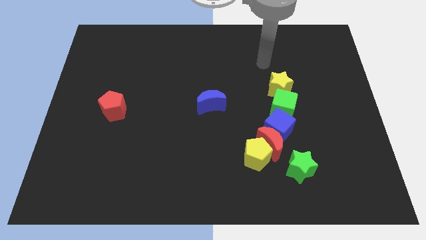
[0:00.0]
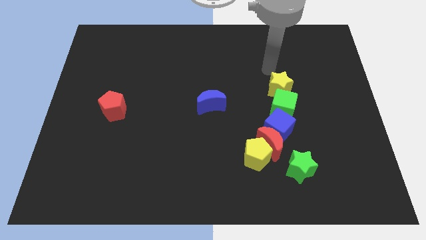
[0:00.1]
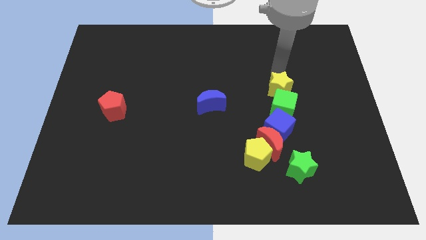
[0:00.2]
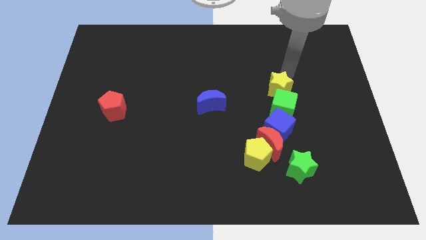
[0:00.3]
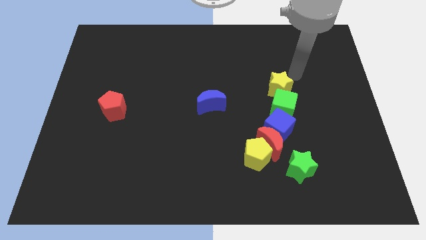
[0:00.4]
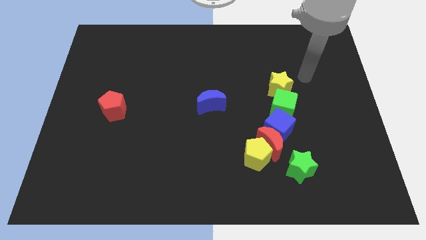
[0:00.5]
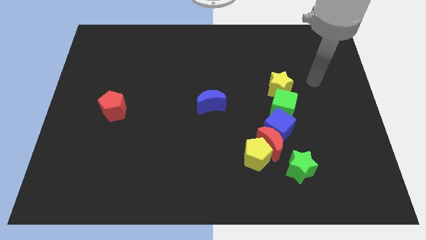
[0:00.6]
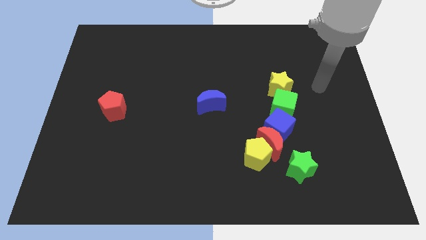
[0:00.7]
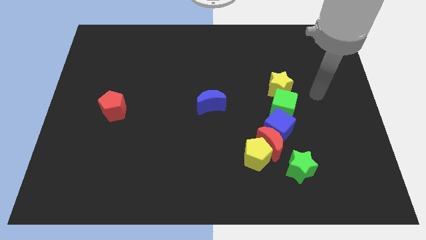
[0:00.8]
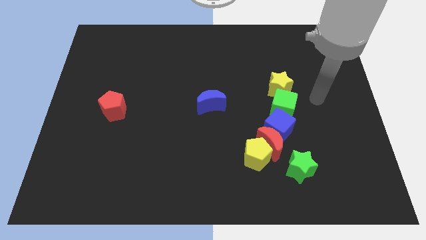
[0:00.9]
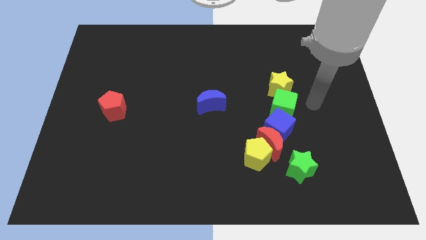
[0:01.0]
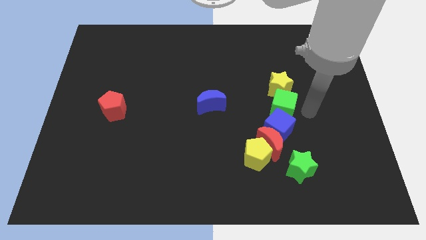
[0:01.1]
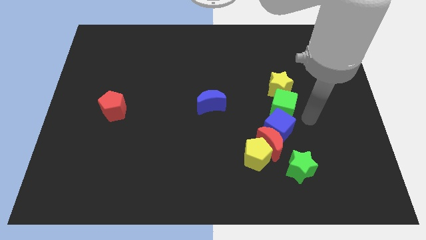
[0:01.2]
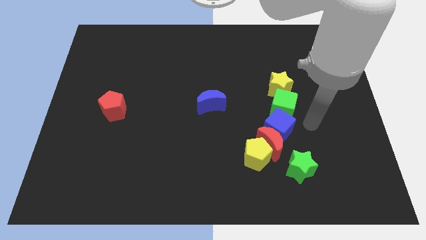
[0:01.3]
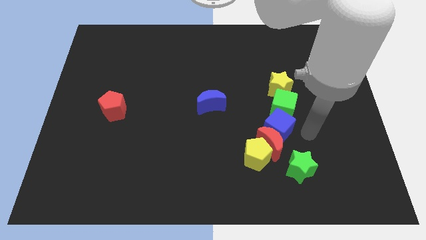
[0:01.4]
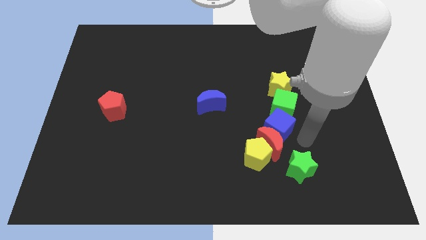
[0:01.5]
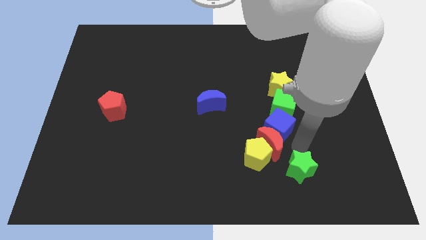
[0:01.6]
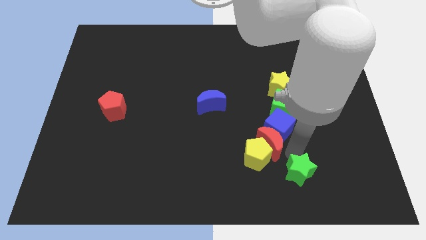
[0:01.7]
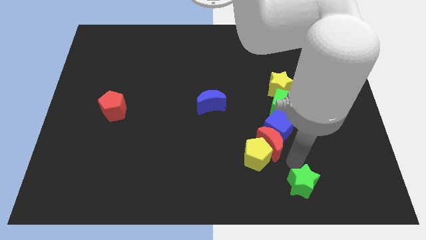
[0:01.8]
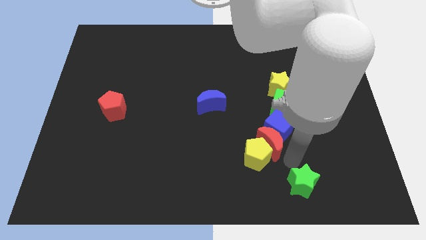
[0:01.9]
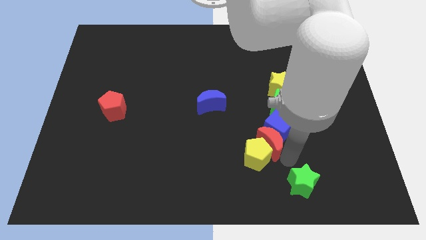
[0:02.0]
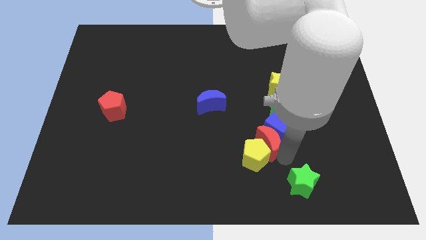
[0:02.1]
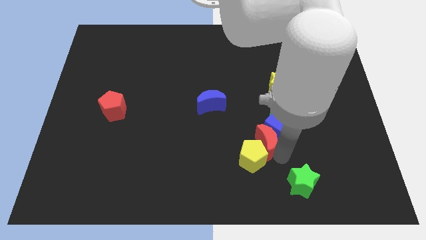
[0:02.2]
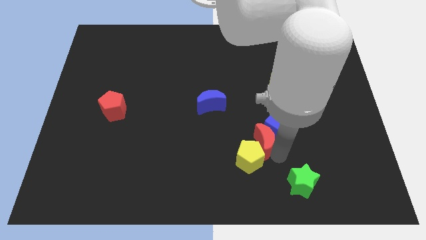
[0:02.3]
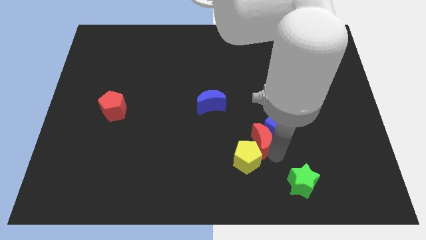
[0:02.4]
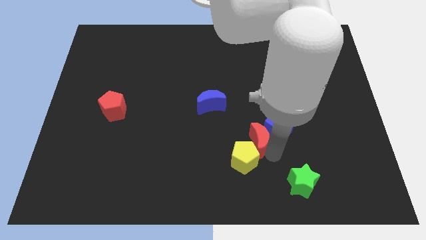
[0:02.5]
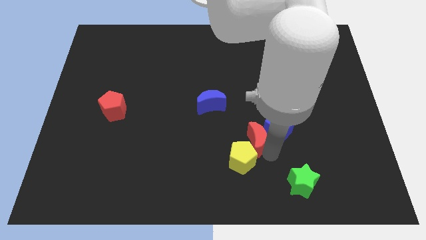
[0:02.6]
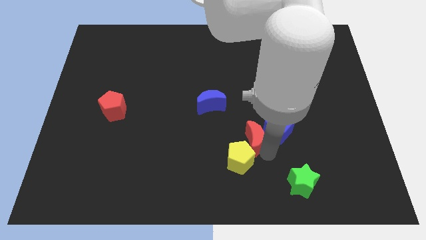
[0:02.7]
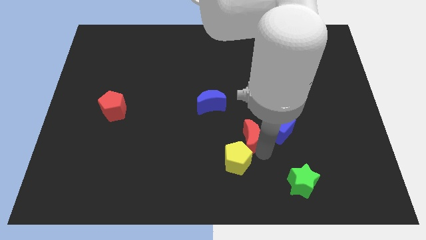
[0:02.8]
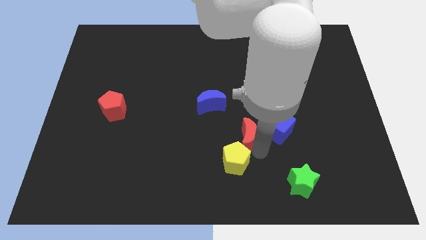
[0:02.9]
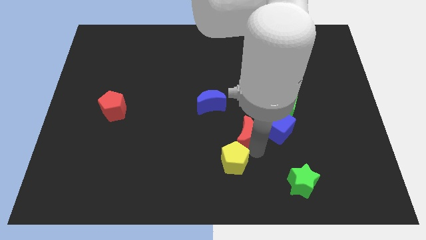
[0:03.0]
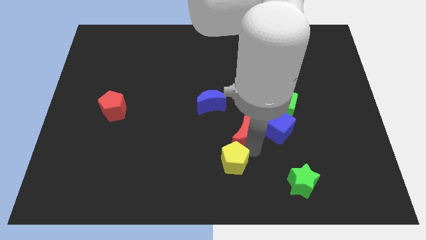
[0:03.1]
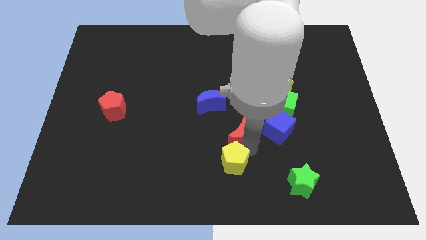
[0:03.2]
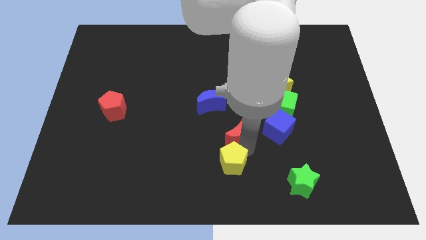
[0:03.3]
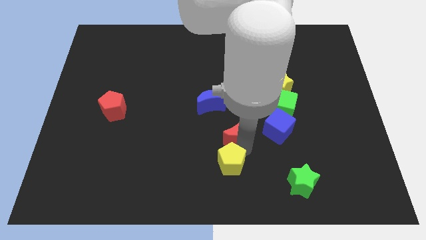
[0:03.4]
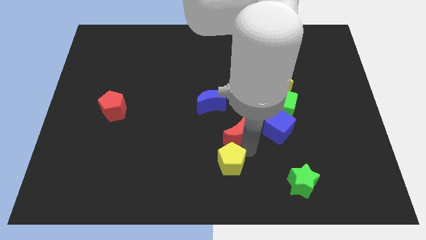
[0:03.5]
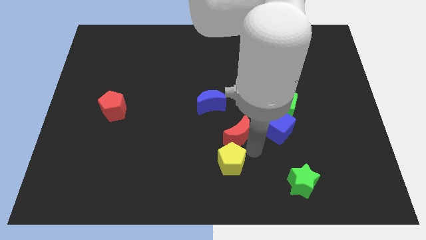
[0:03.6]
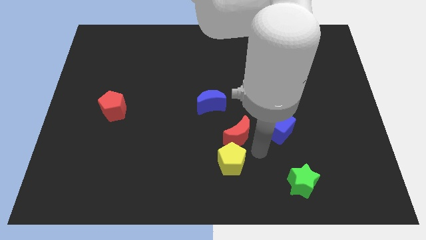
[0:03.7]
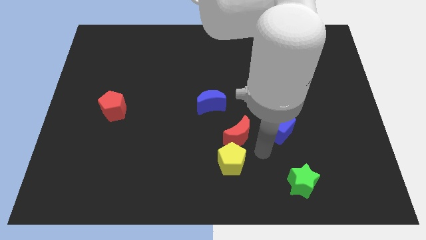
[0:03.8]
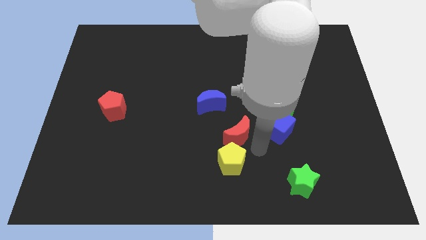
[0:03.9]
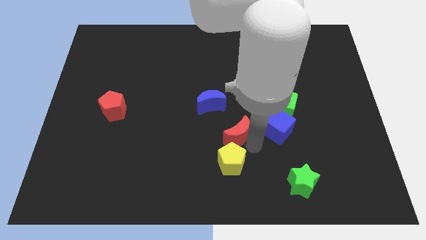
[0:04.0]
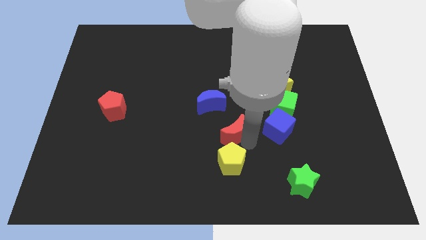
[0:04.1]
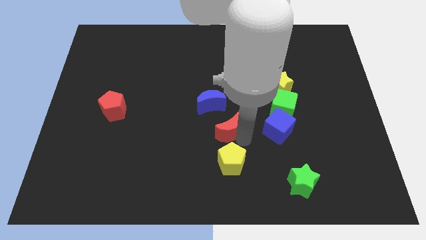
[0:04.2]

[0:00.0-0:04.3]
move the red moon away from the blue cube, yellow pentagon, and green star

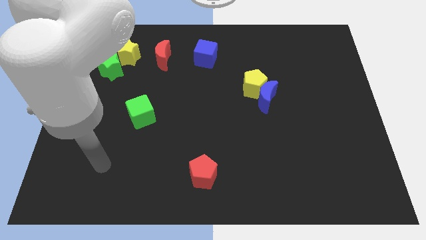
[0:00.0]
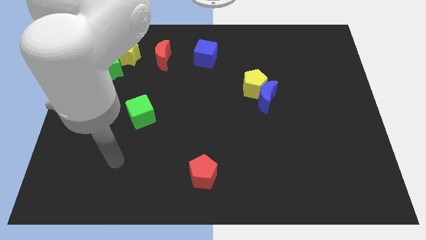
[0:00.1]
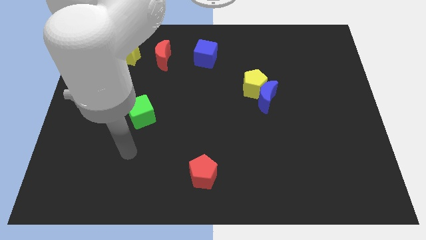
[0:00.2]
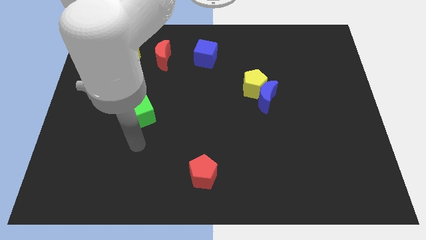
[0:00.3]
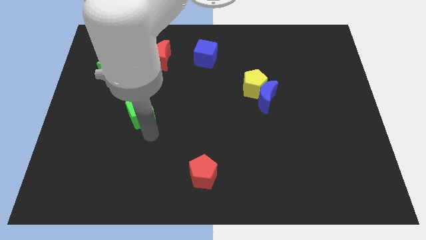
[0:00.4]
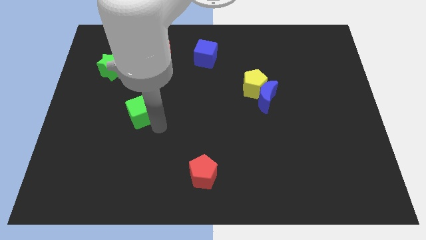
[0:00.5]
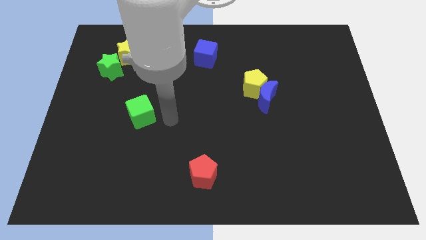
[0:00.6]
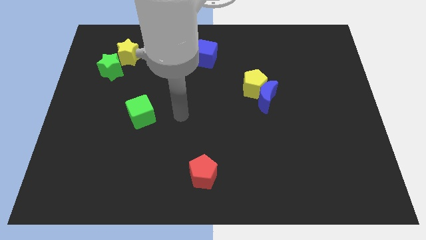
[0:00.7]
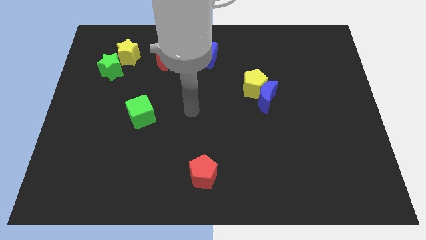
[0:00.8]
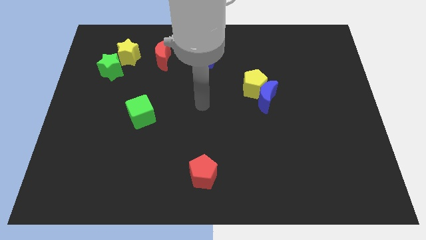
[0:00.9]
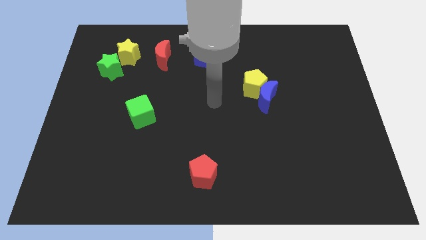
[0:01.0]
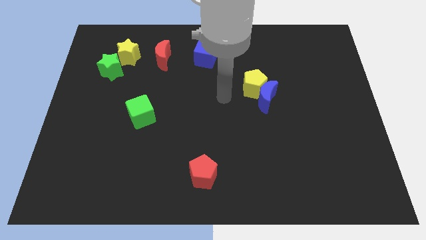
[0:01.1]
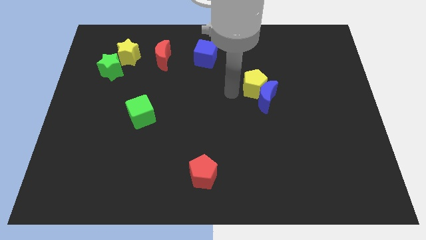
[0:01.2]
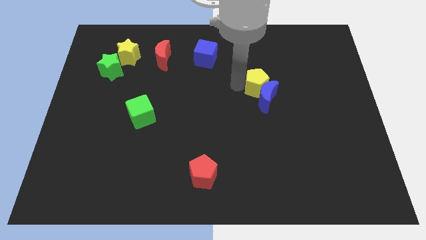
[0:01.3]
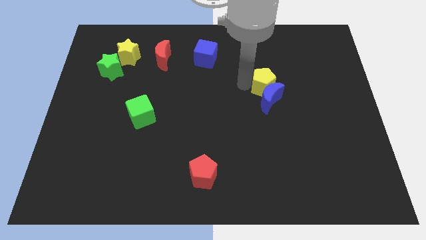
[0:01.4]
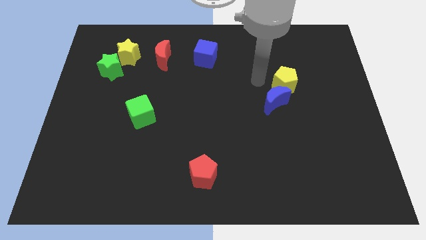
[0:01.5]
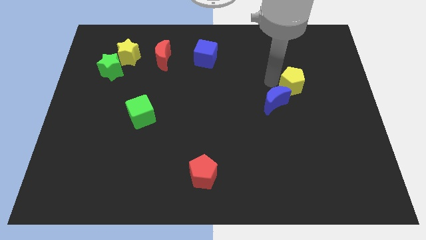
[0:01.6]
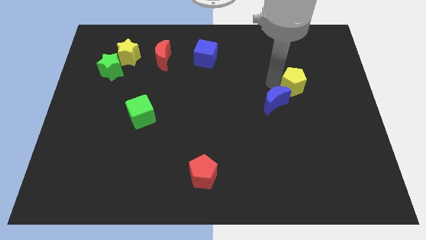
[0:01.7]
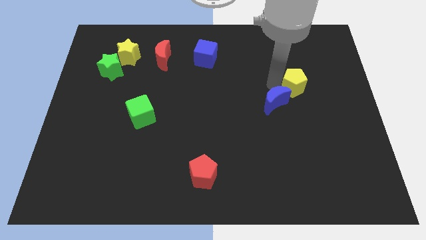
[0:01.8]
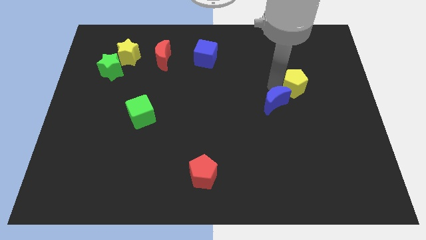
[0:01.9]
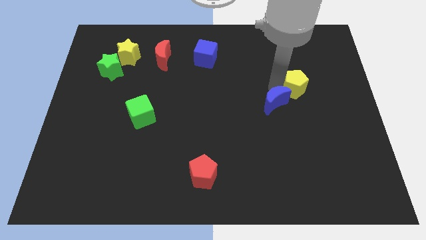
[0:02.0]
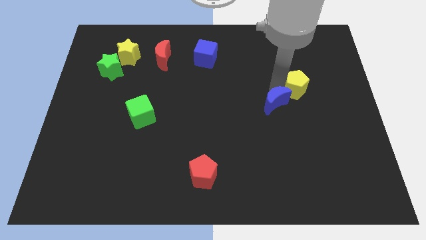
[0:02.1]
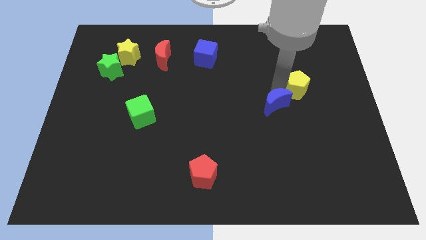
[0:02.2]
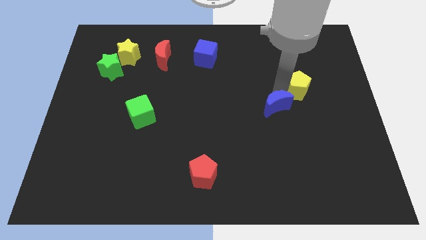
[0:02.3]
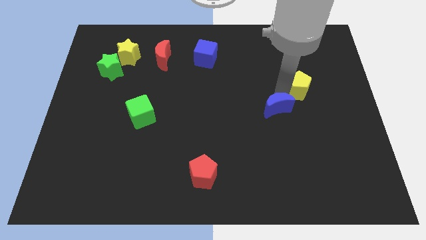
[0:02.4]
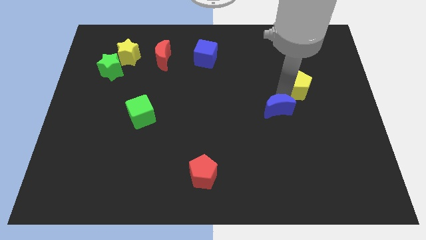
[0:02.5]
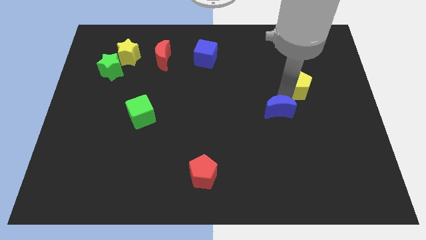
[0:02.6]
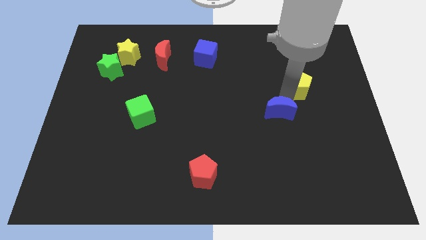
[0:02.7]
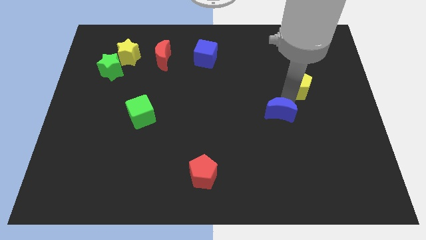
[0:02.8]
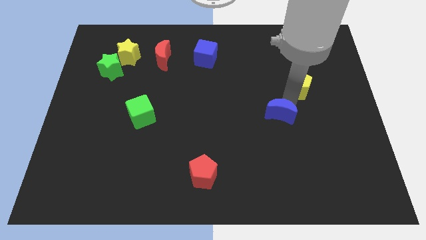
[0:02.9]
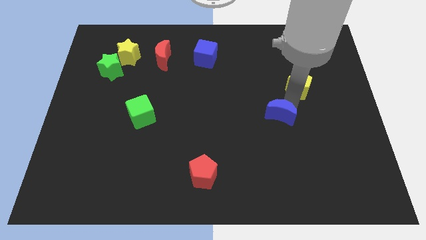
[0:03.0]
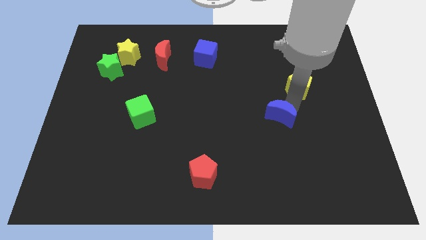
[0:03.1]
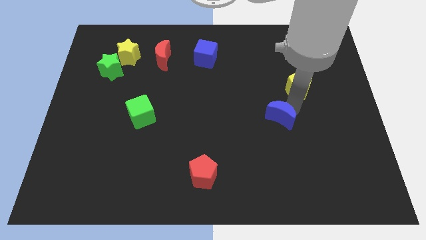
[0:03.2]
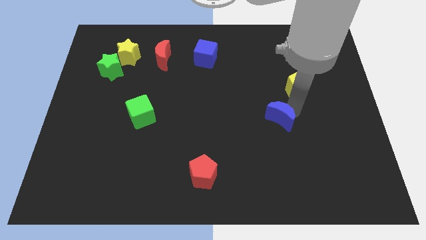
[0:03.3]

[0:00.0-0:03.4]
separate the blue moon from the yellow pentagon

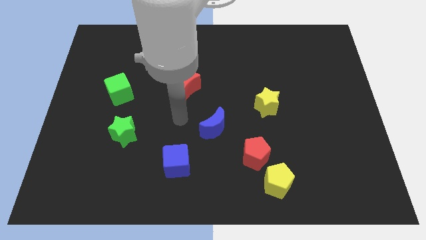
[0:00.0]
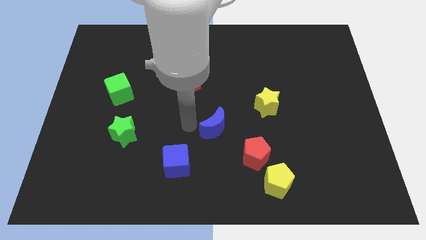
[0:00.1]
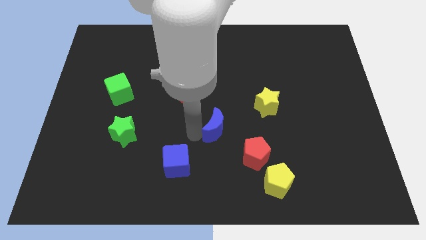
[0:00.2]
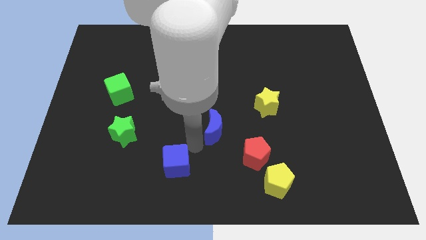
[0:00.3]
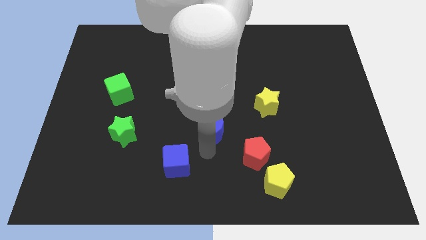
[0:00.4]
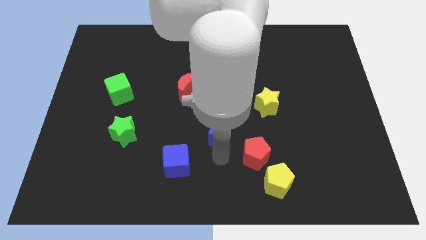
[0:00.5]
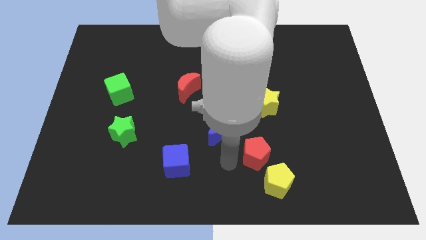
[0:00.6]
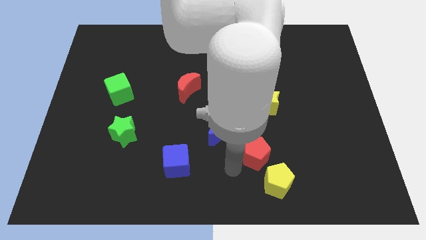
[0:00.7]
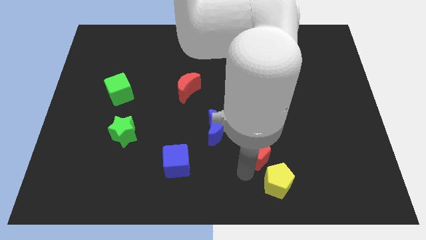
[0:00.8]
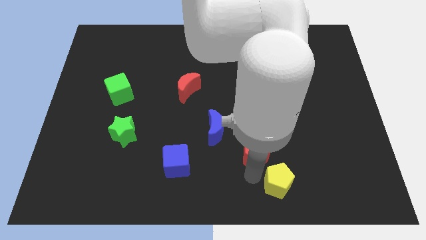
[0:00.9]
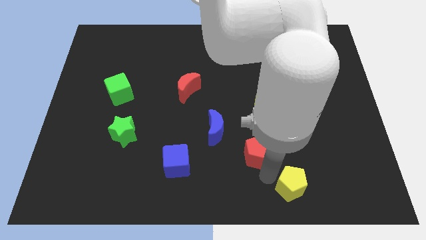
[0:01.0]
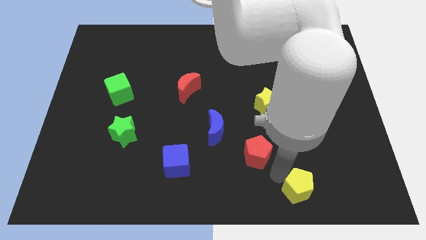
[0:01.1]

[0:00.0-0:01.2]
move the red pentagon away from the yellow pentagon

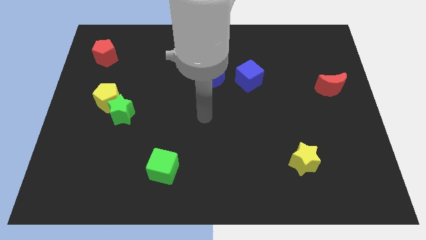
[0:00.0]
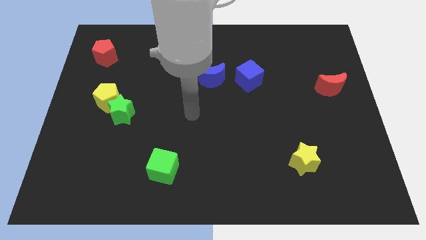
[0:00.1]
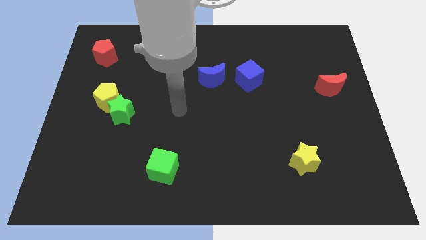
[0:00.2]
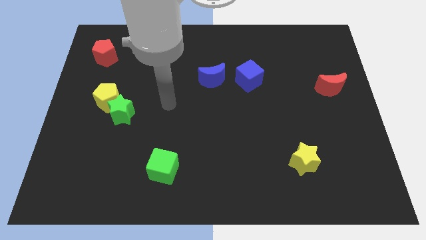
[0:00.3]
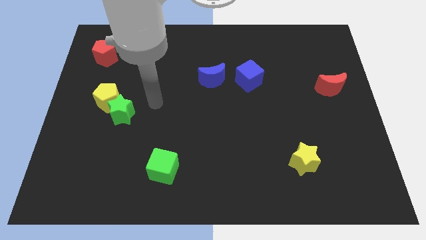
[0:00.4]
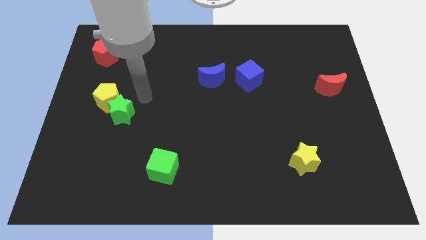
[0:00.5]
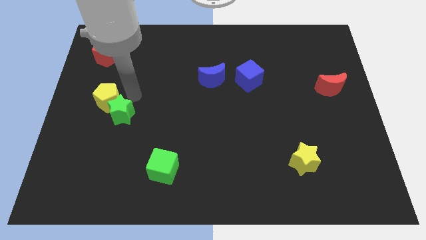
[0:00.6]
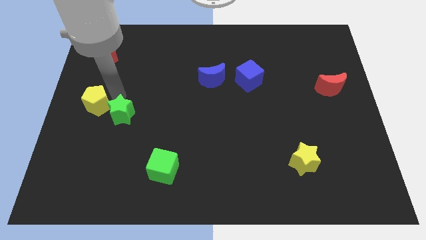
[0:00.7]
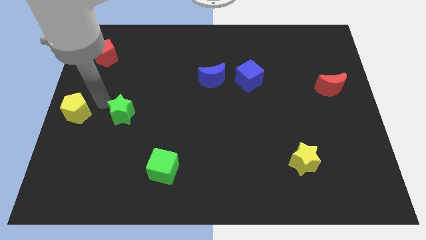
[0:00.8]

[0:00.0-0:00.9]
move the green star away from the yellow pentagon
